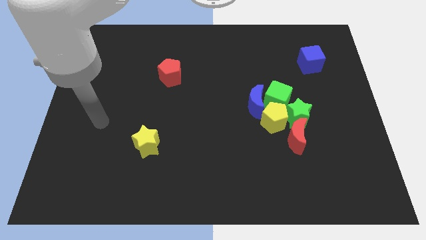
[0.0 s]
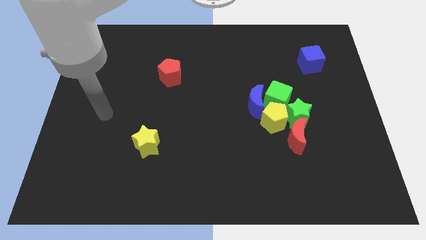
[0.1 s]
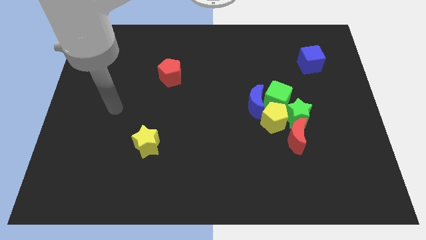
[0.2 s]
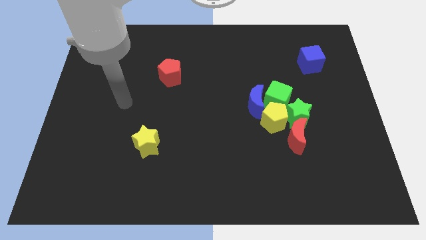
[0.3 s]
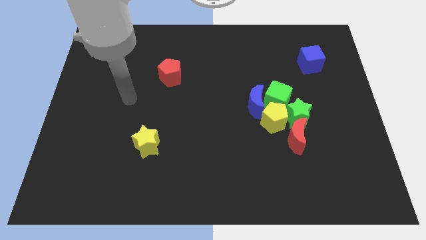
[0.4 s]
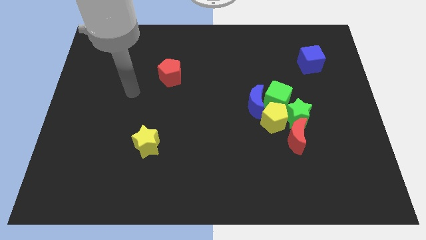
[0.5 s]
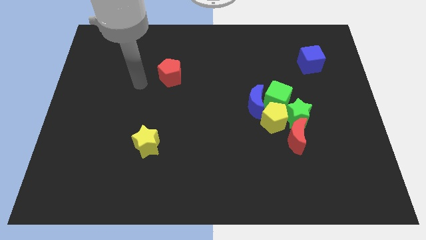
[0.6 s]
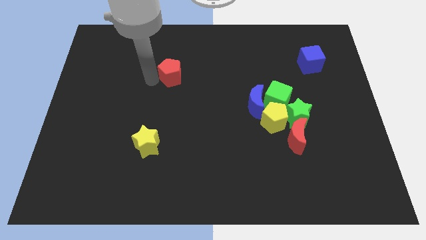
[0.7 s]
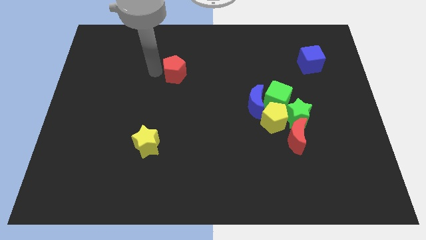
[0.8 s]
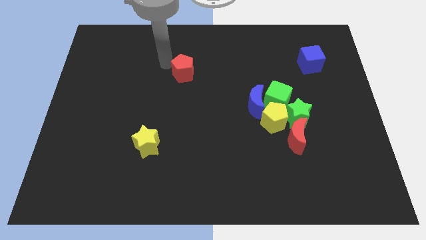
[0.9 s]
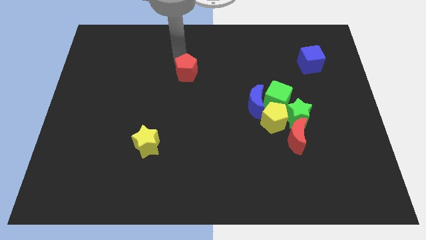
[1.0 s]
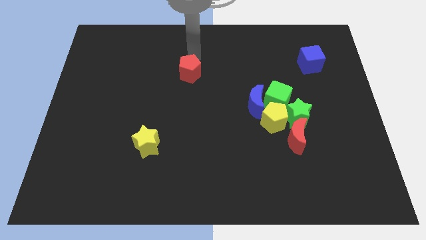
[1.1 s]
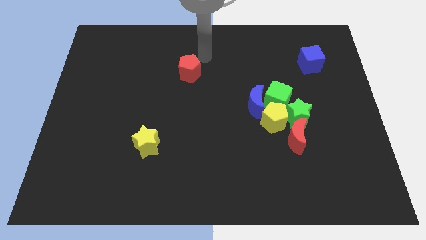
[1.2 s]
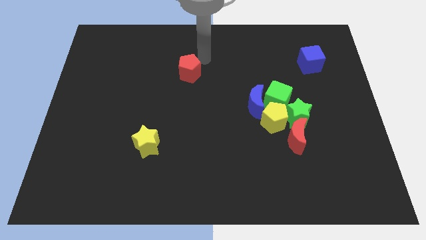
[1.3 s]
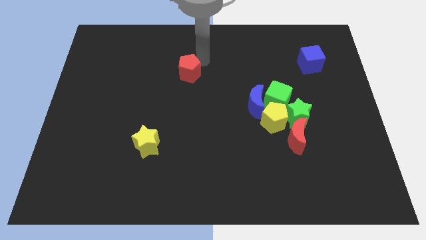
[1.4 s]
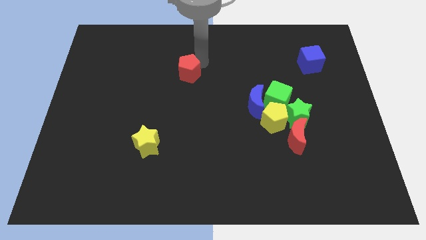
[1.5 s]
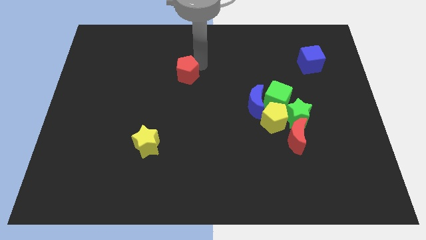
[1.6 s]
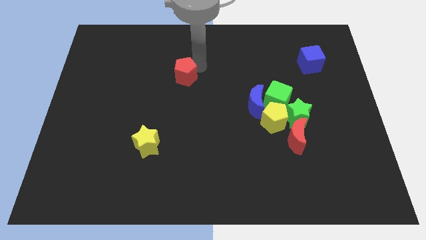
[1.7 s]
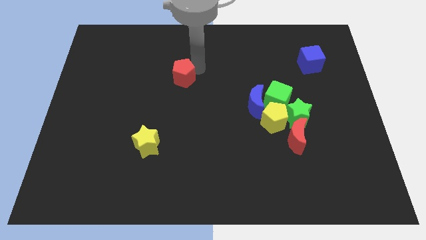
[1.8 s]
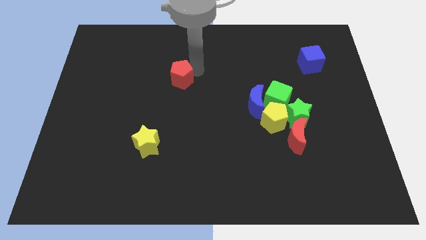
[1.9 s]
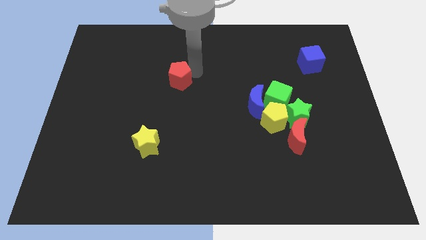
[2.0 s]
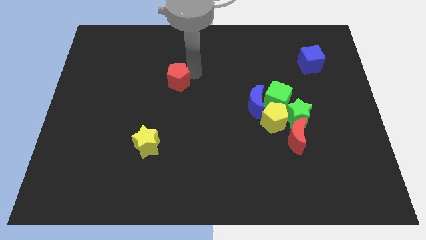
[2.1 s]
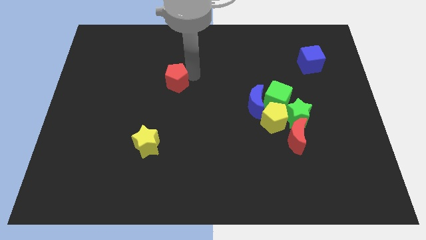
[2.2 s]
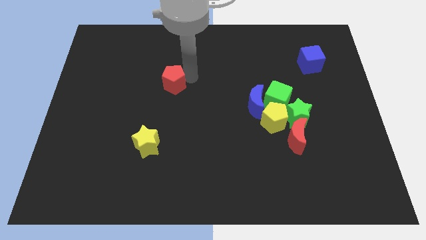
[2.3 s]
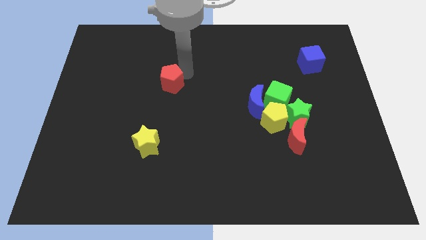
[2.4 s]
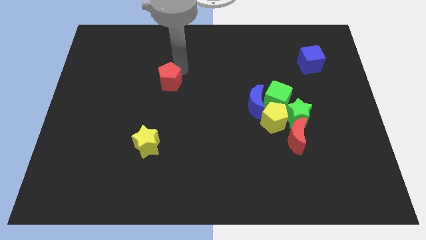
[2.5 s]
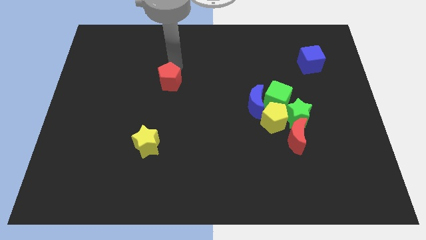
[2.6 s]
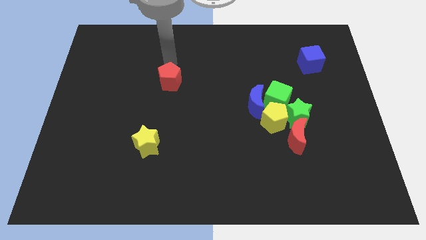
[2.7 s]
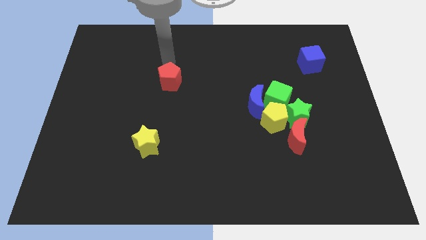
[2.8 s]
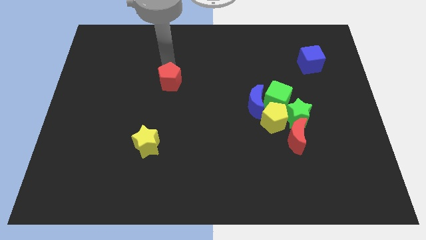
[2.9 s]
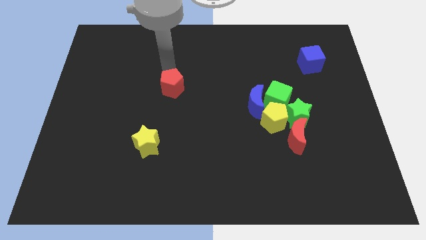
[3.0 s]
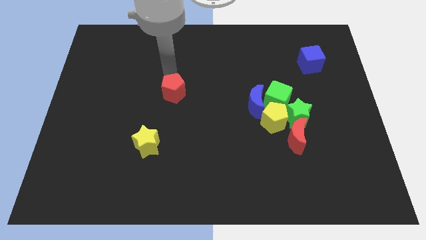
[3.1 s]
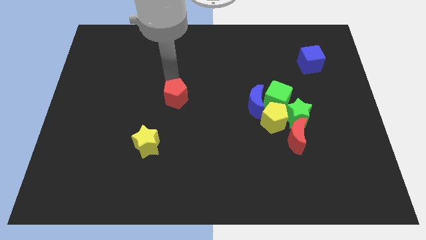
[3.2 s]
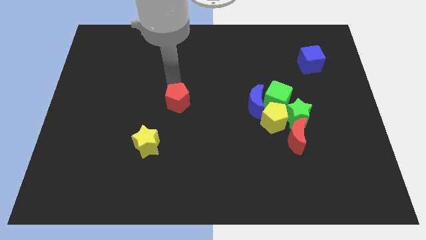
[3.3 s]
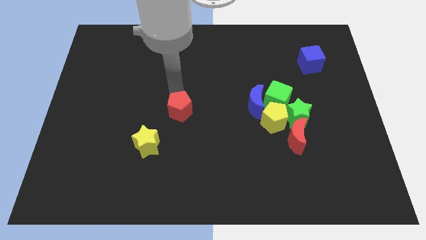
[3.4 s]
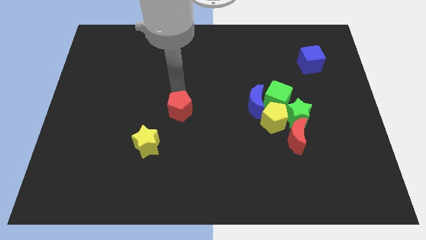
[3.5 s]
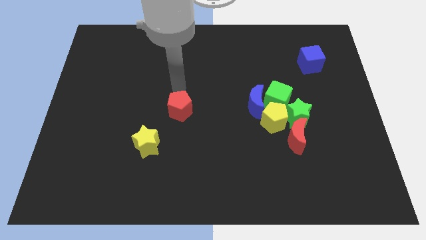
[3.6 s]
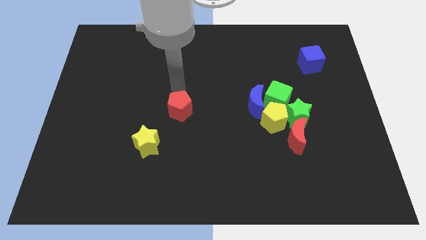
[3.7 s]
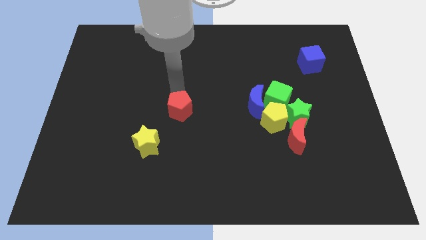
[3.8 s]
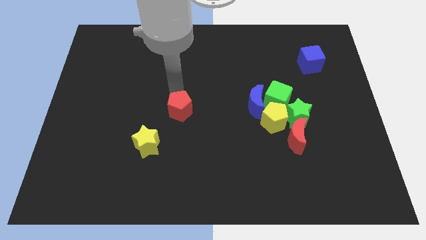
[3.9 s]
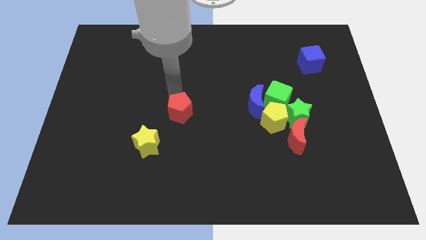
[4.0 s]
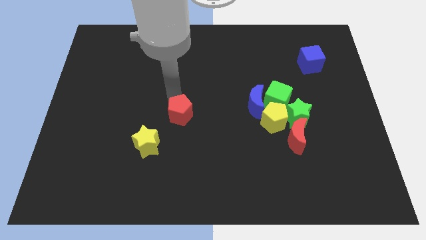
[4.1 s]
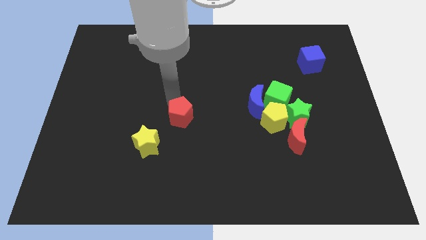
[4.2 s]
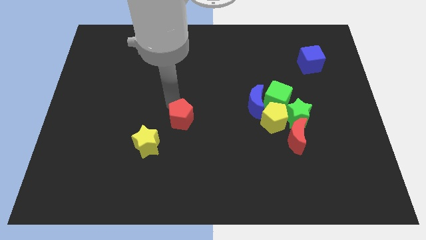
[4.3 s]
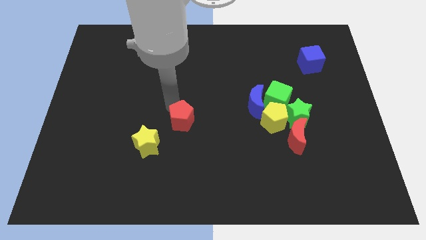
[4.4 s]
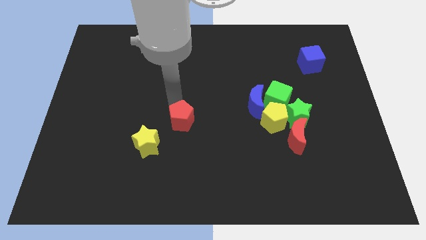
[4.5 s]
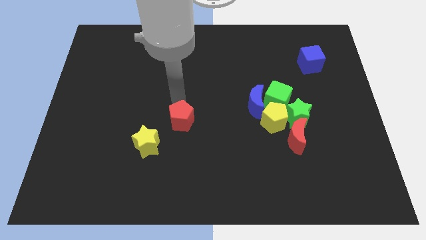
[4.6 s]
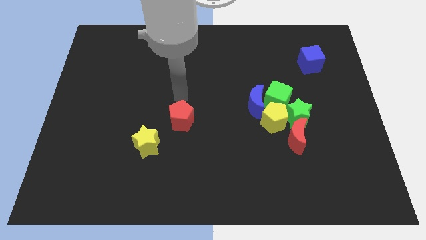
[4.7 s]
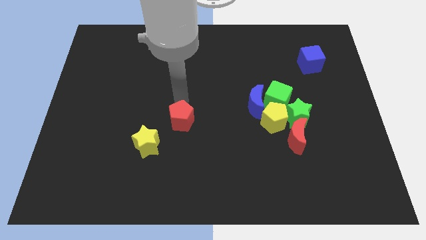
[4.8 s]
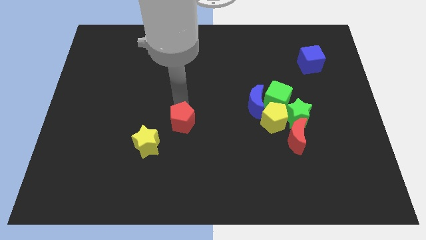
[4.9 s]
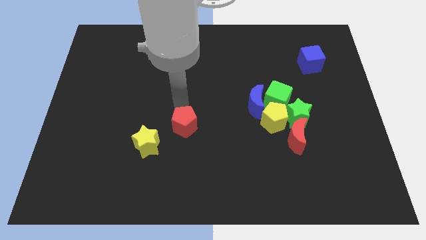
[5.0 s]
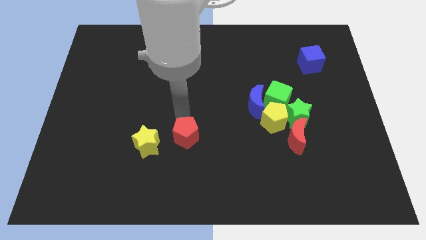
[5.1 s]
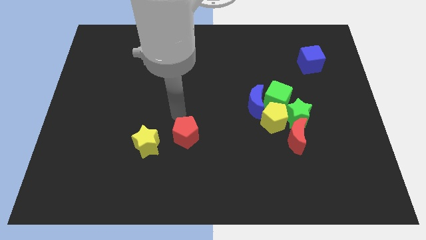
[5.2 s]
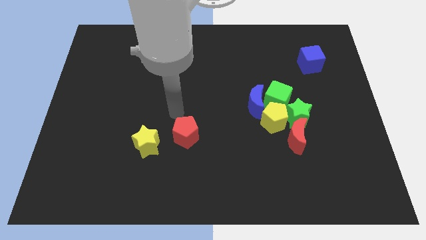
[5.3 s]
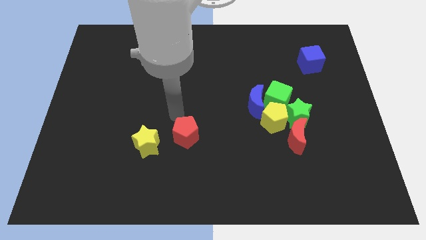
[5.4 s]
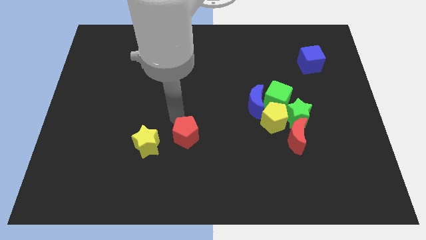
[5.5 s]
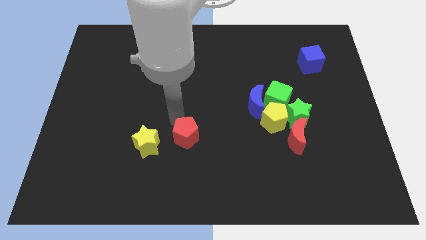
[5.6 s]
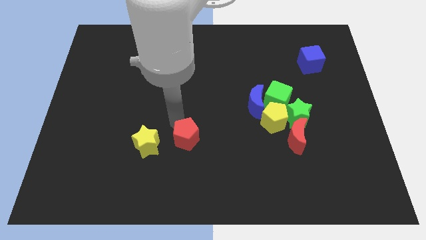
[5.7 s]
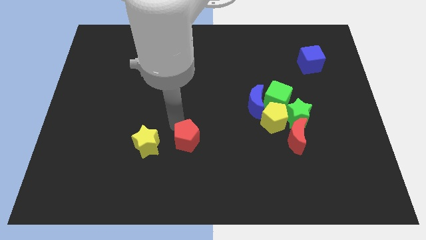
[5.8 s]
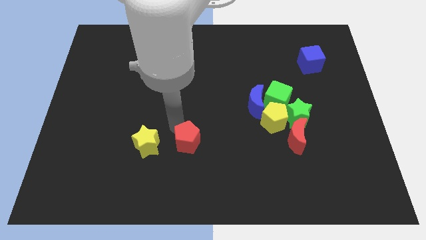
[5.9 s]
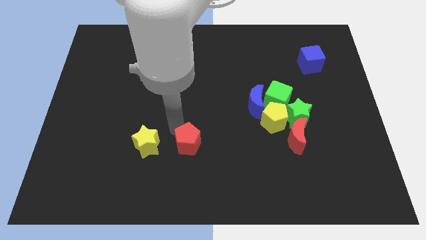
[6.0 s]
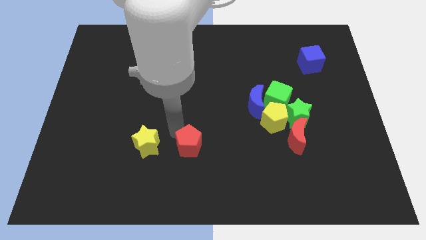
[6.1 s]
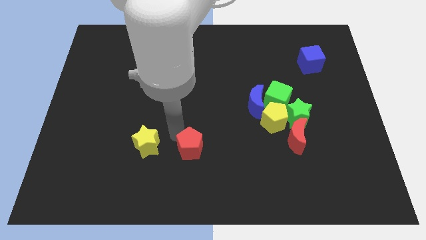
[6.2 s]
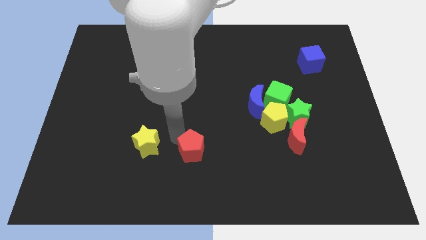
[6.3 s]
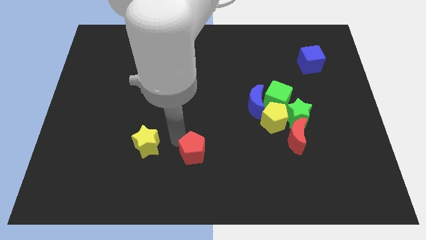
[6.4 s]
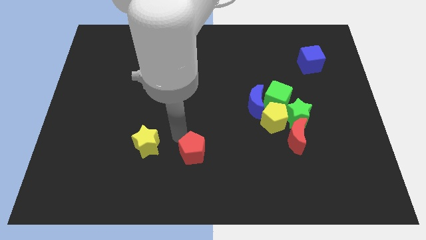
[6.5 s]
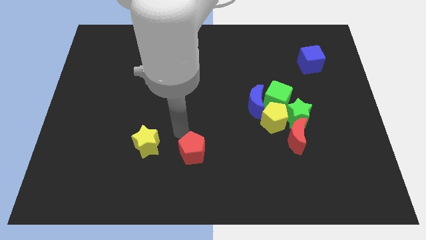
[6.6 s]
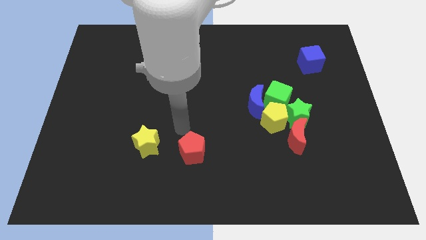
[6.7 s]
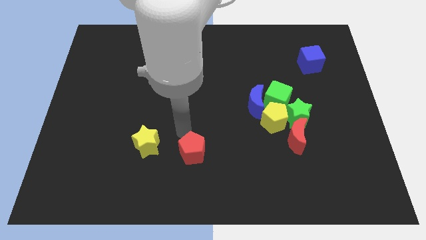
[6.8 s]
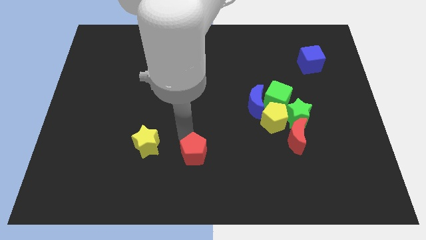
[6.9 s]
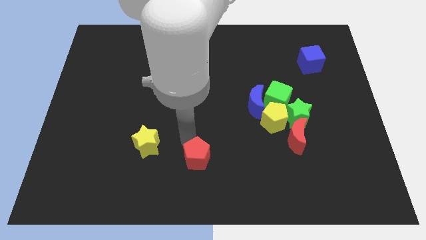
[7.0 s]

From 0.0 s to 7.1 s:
move the red pentagon to the bottom side

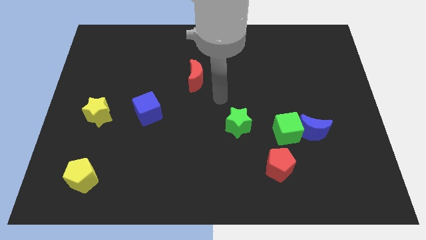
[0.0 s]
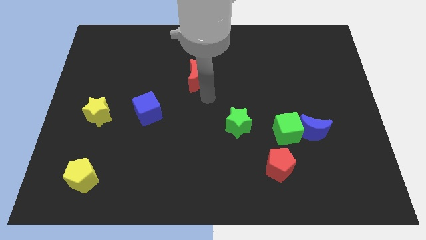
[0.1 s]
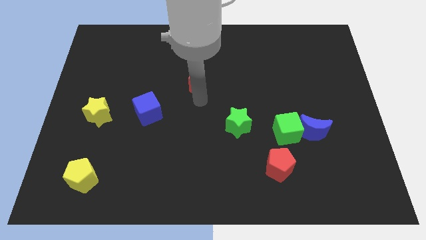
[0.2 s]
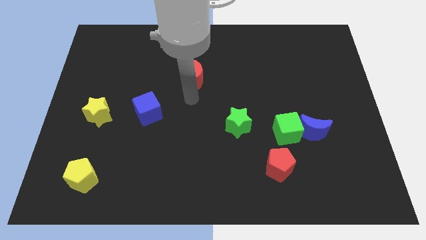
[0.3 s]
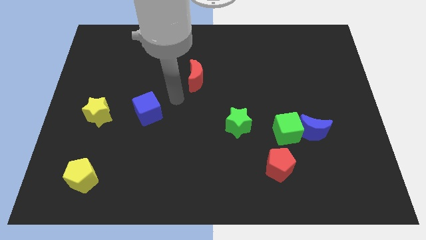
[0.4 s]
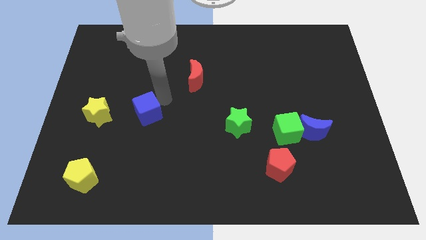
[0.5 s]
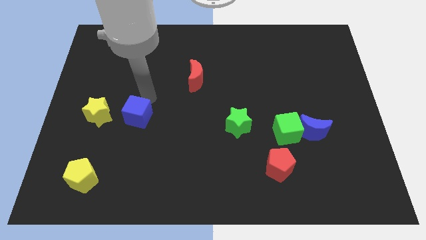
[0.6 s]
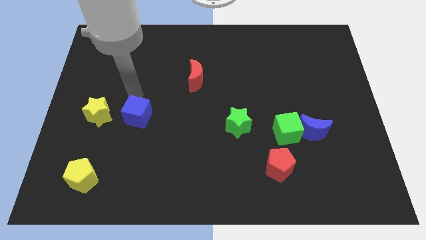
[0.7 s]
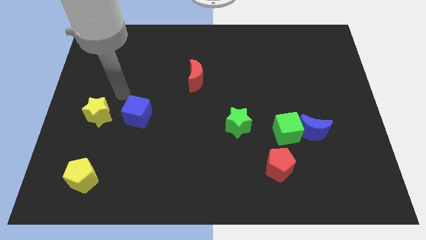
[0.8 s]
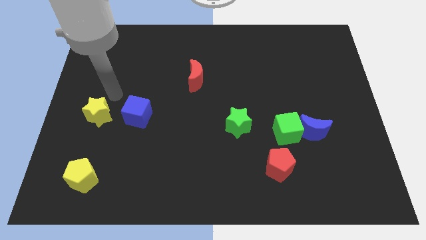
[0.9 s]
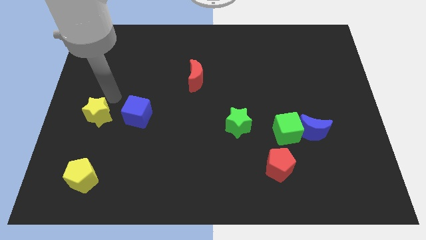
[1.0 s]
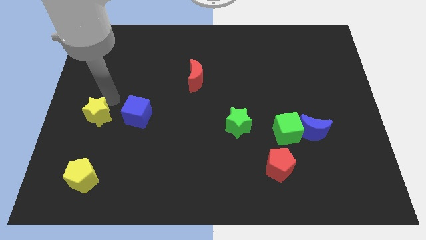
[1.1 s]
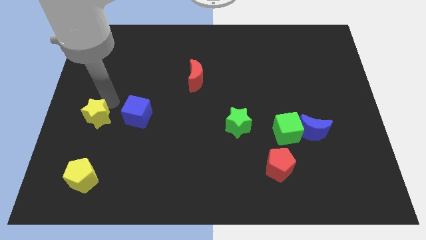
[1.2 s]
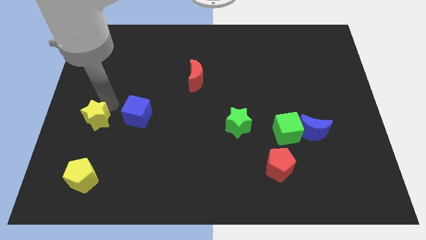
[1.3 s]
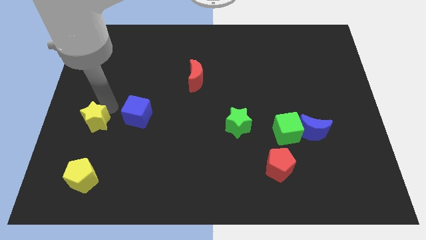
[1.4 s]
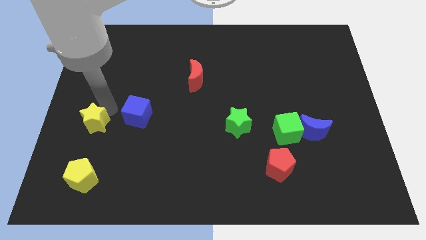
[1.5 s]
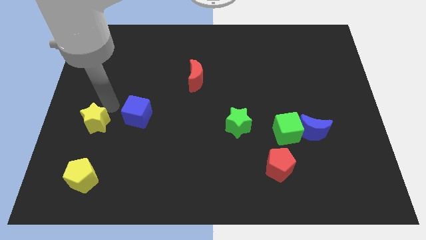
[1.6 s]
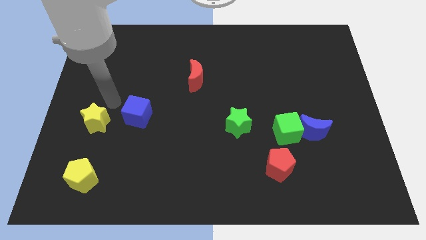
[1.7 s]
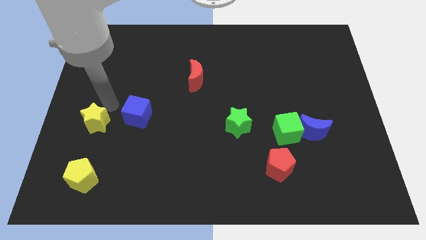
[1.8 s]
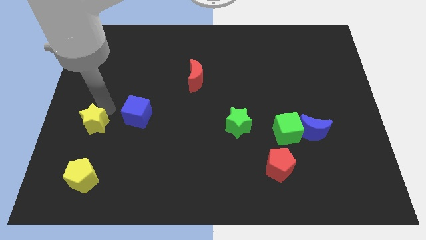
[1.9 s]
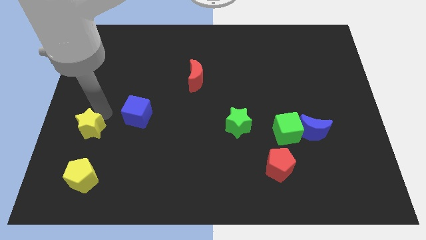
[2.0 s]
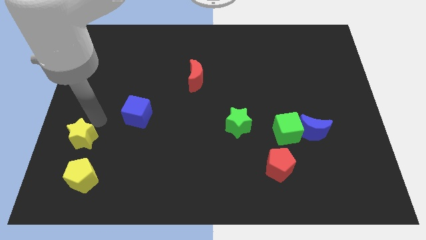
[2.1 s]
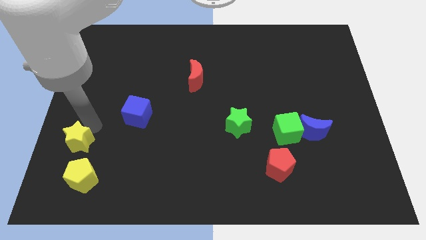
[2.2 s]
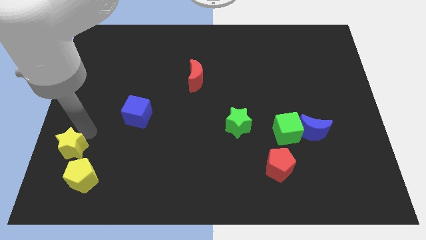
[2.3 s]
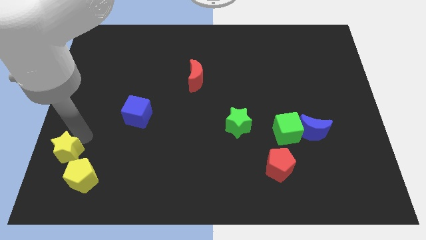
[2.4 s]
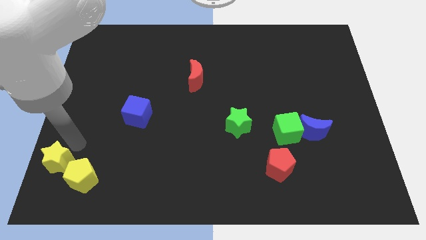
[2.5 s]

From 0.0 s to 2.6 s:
move the yellow star to the bottom left
